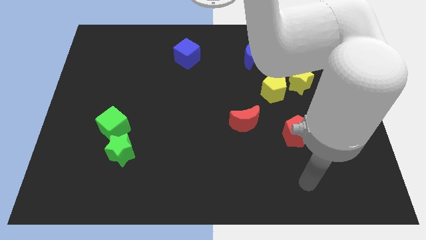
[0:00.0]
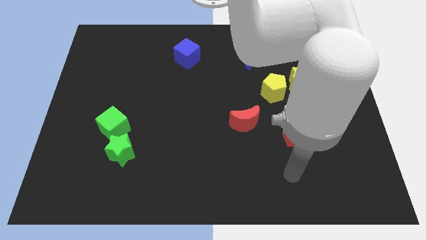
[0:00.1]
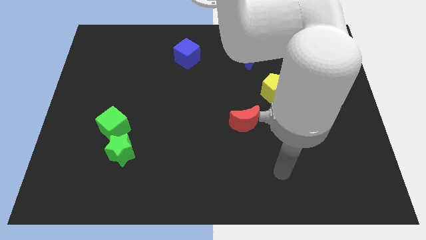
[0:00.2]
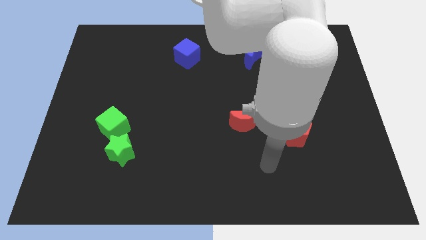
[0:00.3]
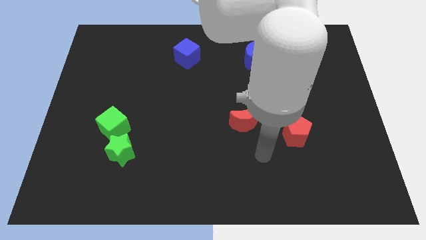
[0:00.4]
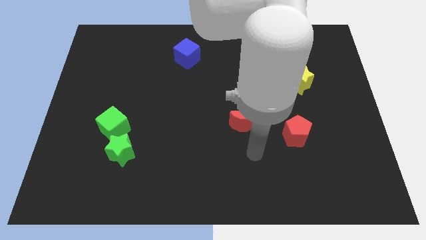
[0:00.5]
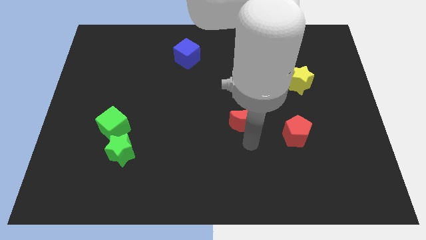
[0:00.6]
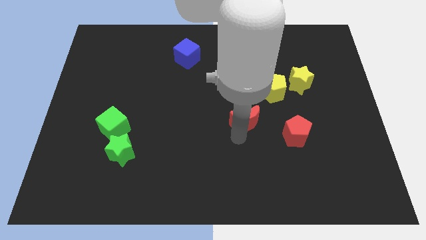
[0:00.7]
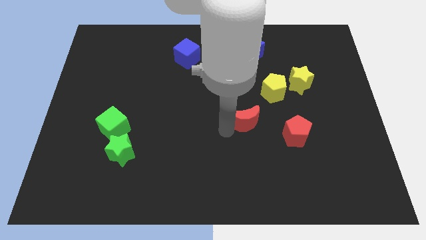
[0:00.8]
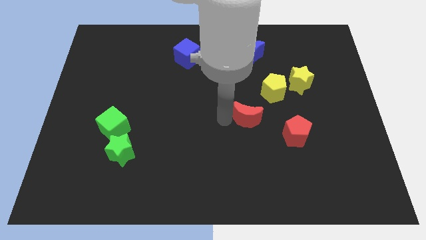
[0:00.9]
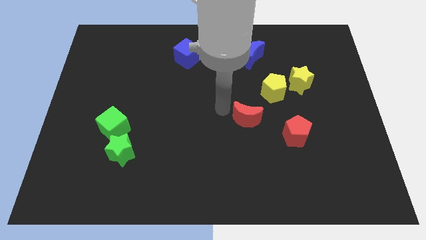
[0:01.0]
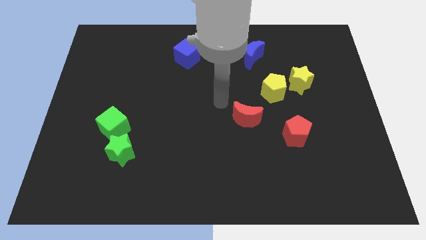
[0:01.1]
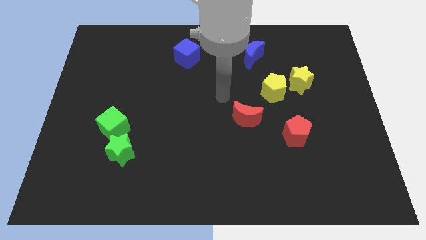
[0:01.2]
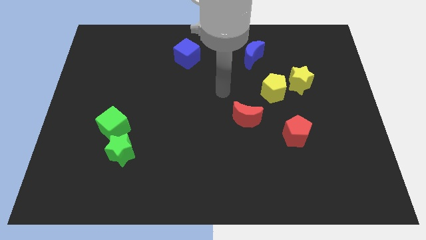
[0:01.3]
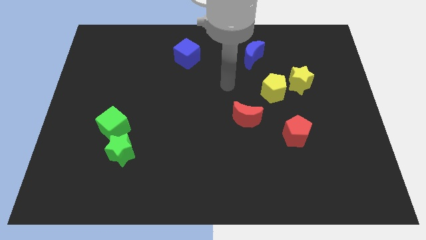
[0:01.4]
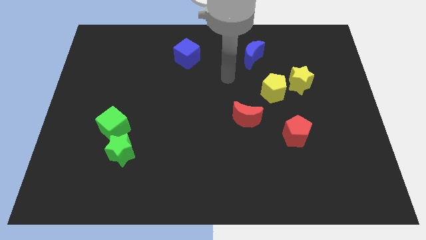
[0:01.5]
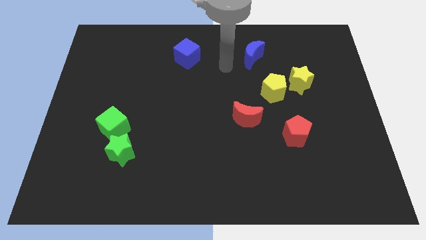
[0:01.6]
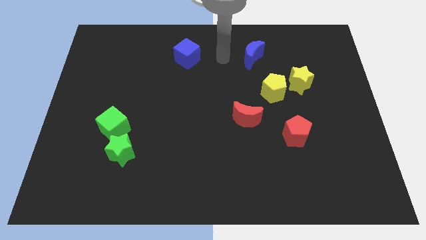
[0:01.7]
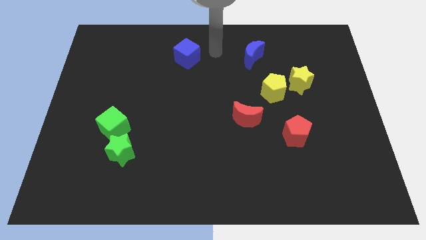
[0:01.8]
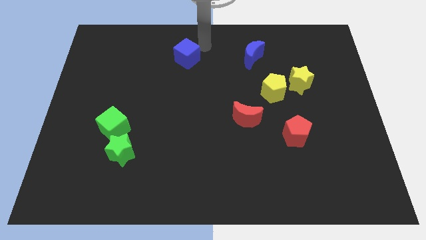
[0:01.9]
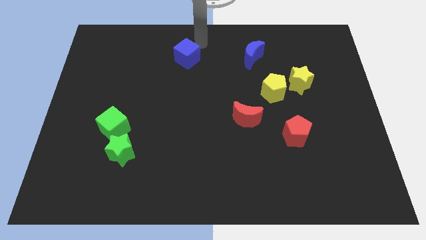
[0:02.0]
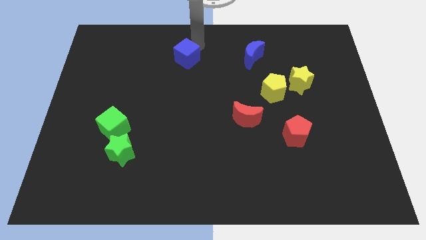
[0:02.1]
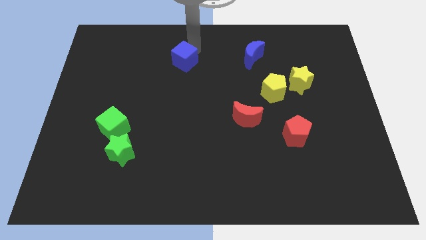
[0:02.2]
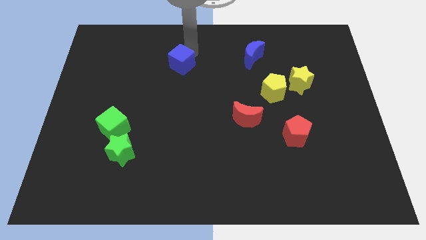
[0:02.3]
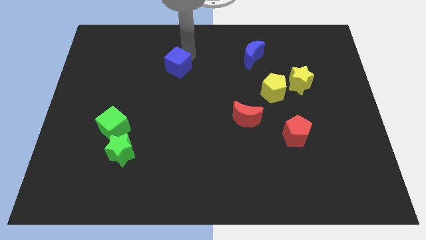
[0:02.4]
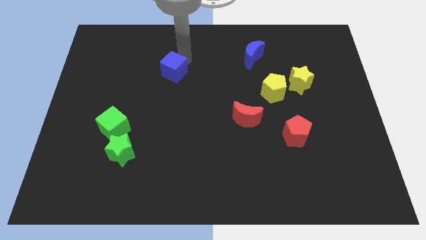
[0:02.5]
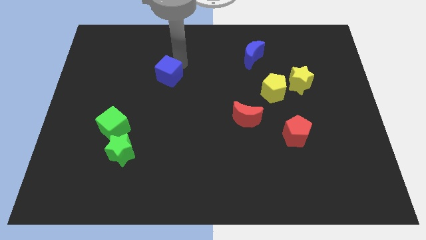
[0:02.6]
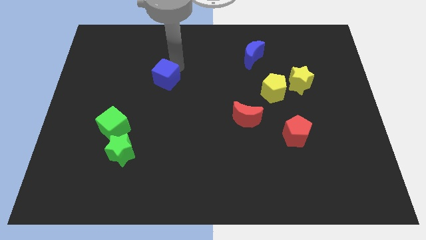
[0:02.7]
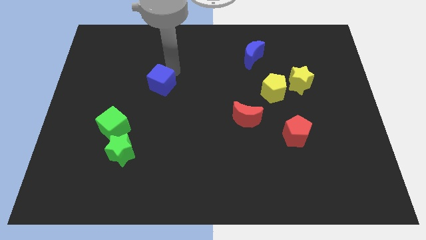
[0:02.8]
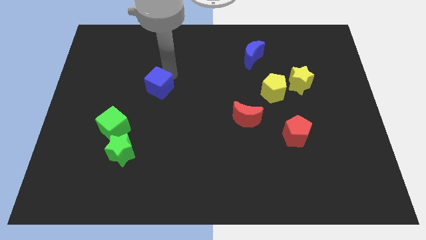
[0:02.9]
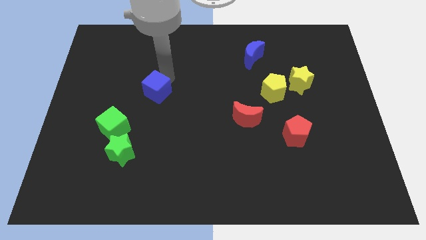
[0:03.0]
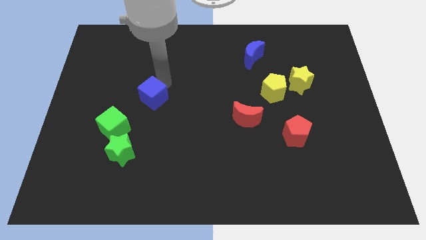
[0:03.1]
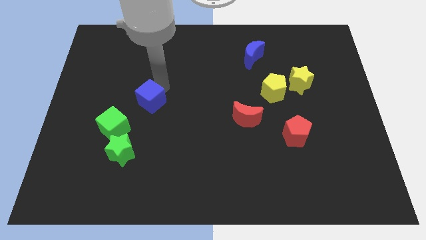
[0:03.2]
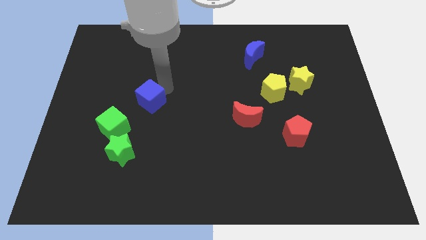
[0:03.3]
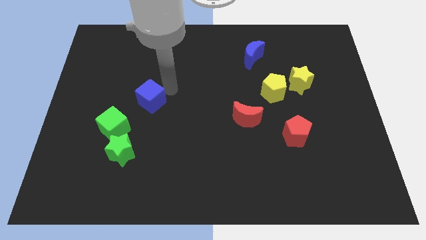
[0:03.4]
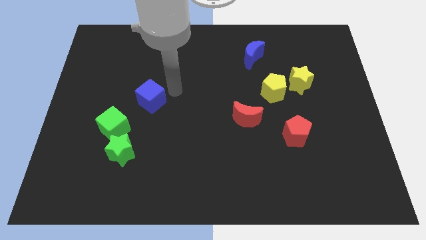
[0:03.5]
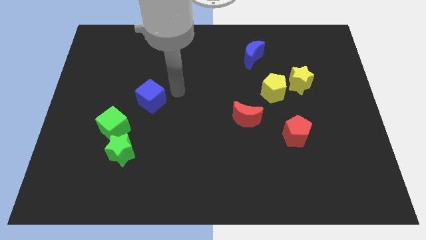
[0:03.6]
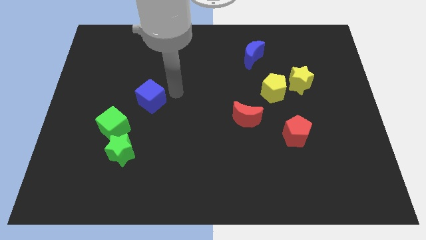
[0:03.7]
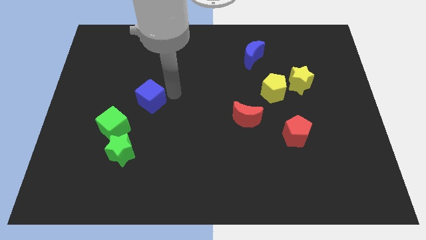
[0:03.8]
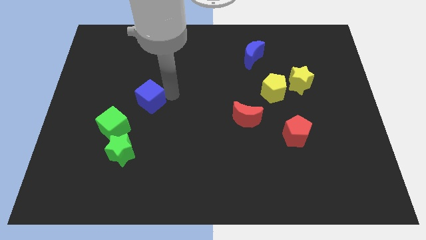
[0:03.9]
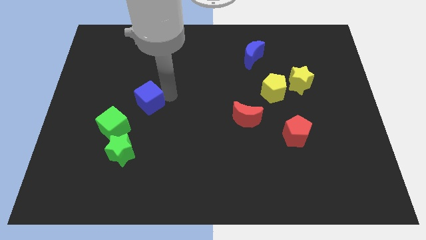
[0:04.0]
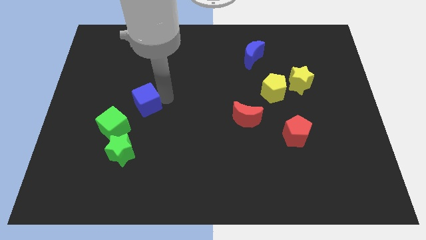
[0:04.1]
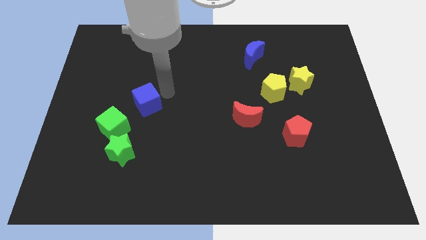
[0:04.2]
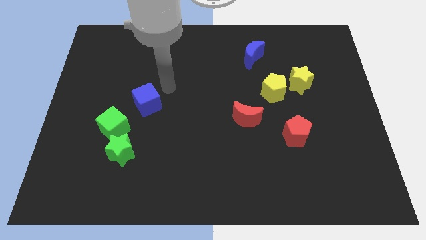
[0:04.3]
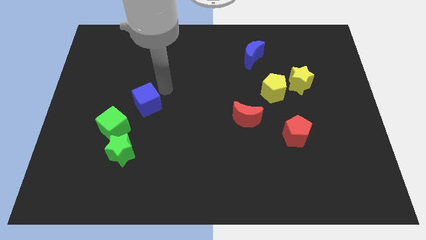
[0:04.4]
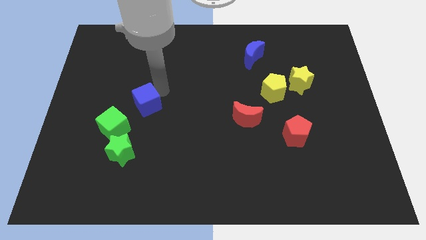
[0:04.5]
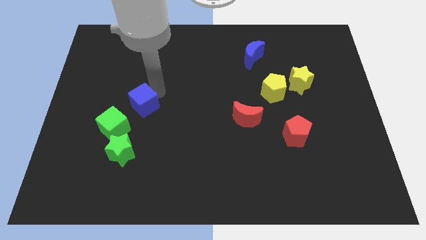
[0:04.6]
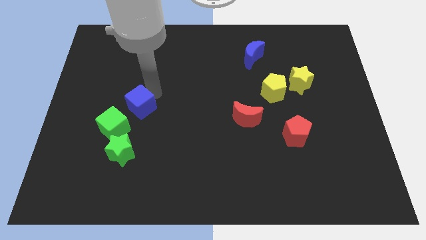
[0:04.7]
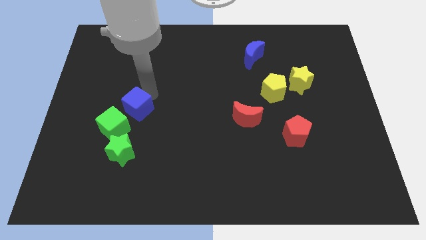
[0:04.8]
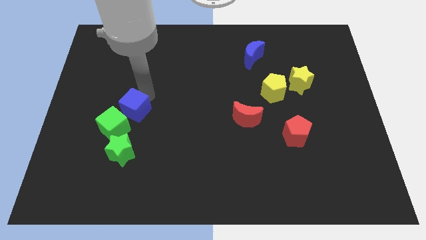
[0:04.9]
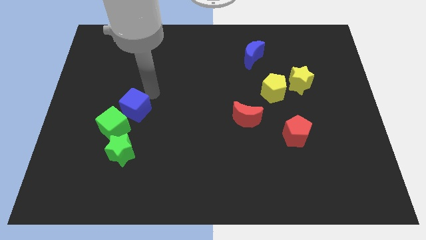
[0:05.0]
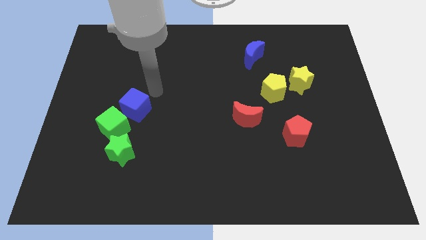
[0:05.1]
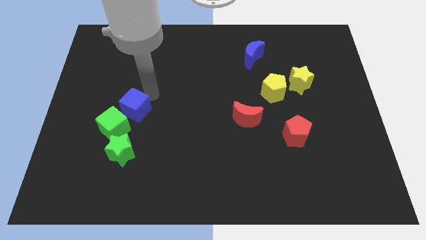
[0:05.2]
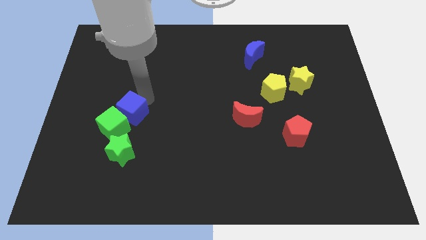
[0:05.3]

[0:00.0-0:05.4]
move the blue cube to the green cube

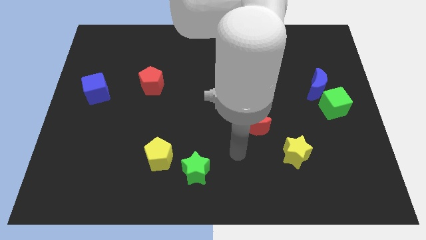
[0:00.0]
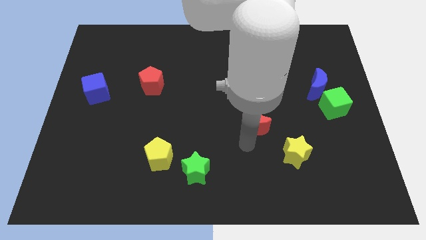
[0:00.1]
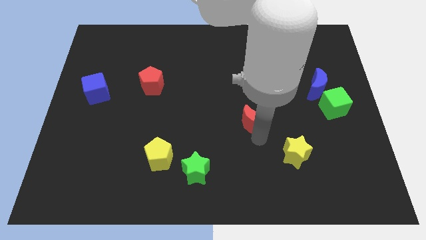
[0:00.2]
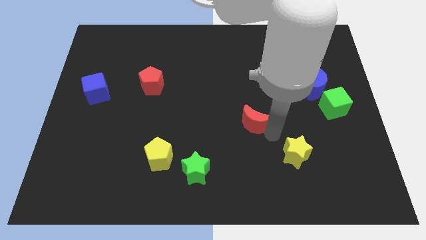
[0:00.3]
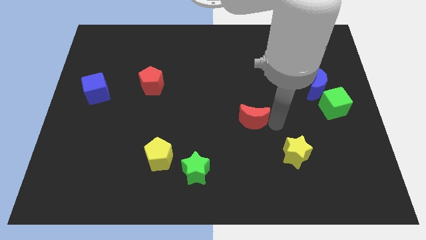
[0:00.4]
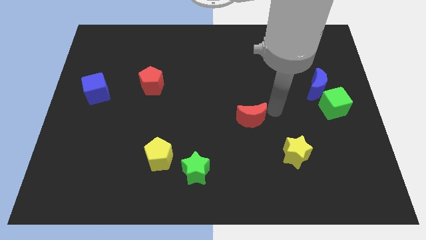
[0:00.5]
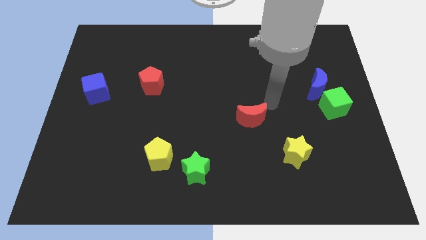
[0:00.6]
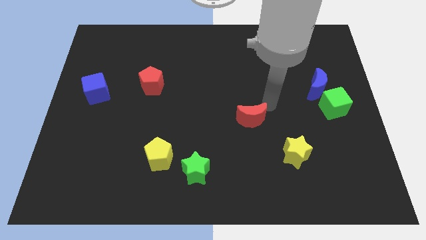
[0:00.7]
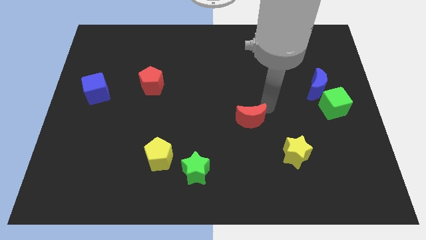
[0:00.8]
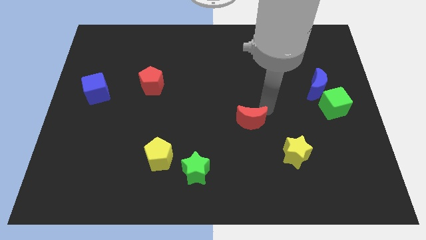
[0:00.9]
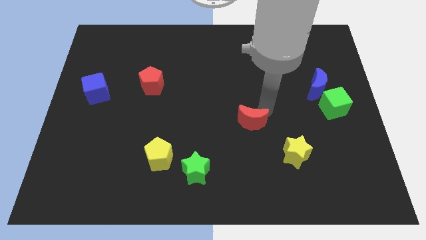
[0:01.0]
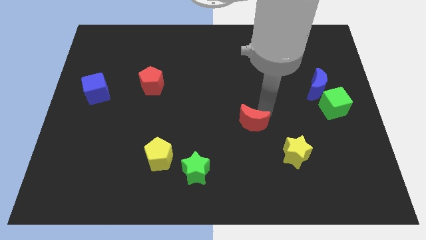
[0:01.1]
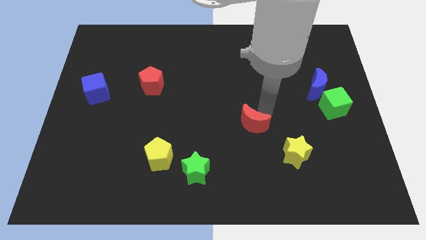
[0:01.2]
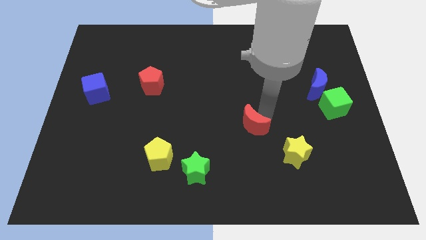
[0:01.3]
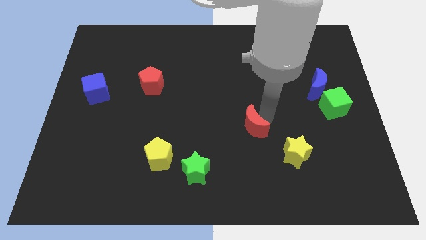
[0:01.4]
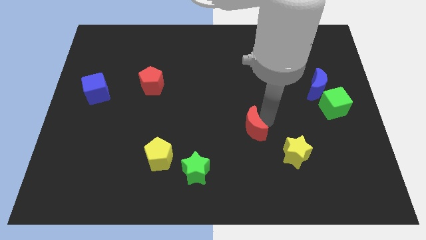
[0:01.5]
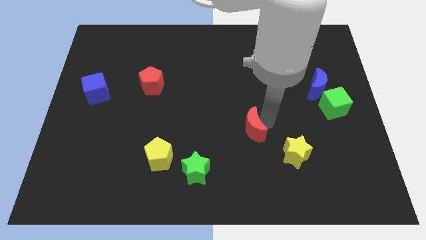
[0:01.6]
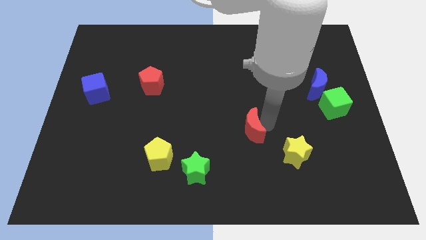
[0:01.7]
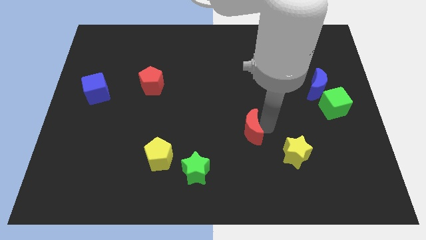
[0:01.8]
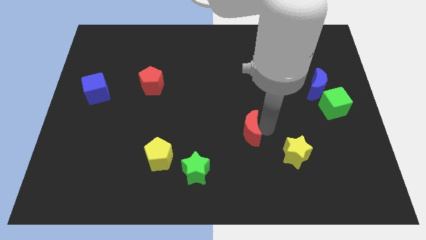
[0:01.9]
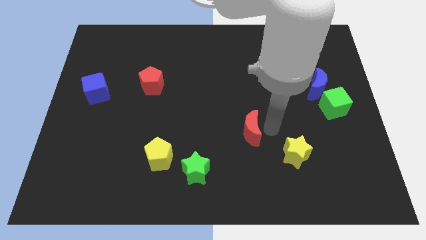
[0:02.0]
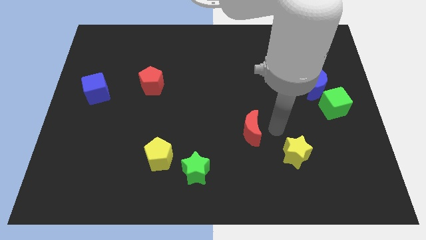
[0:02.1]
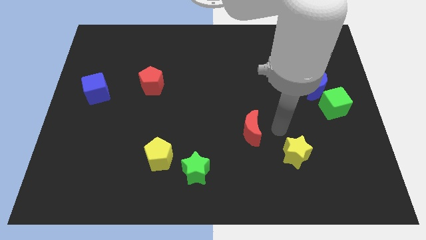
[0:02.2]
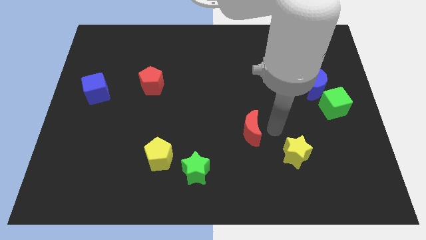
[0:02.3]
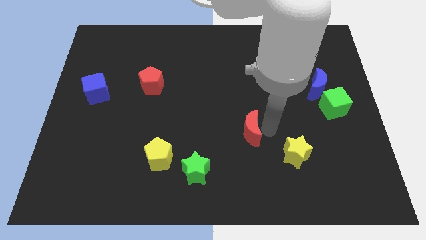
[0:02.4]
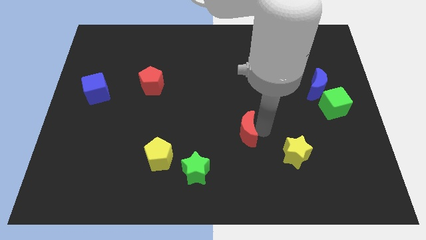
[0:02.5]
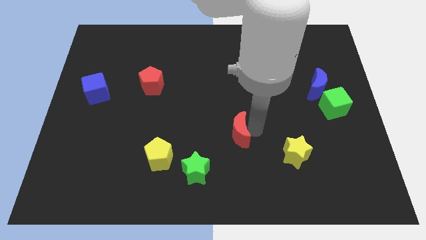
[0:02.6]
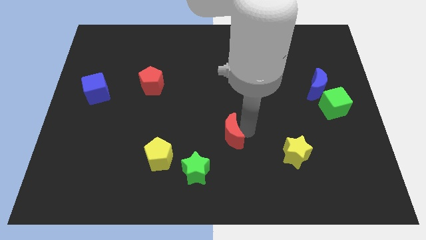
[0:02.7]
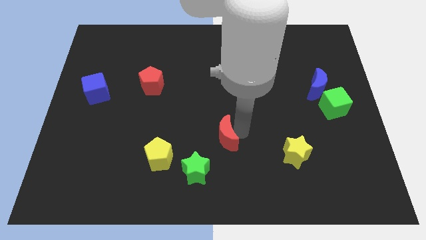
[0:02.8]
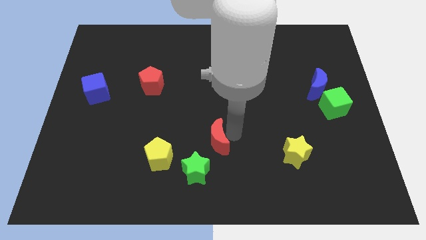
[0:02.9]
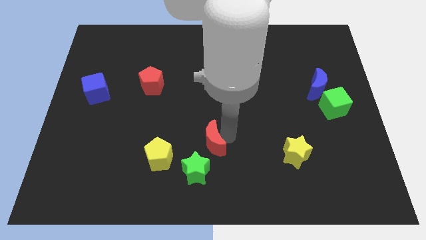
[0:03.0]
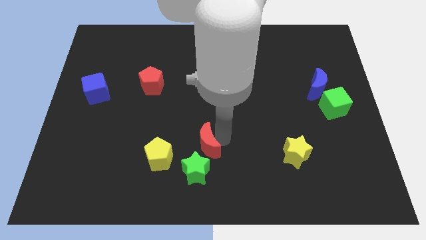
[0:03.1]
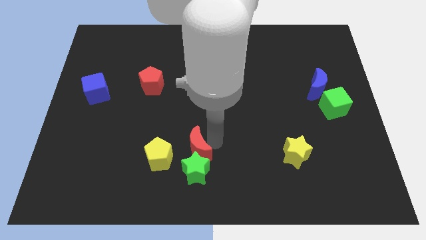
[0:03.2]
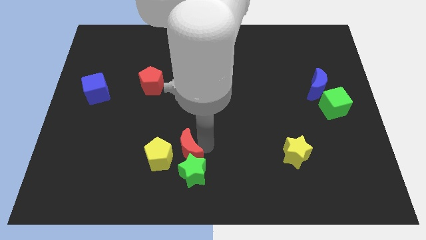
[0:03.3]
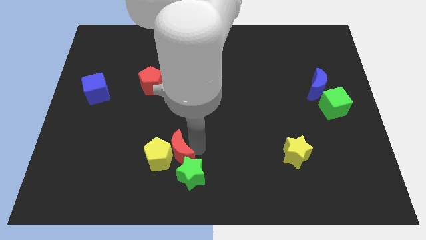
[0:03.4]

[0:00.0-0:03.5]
slide the red moon next to the yellow pentagon
